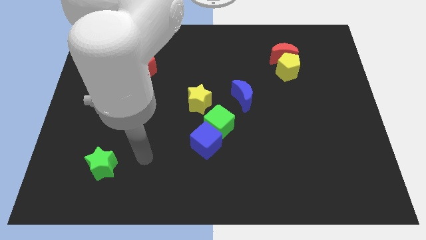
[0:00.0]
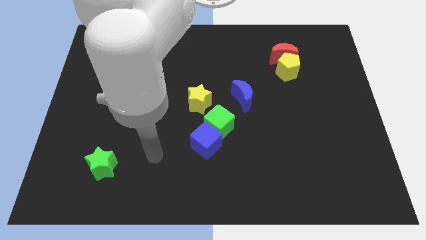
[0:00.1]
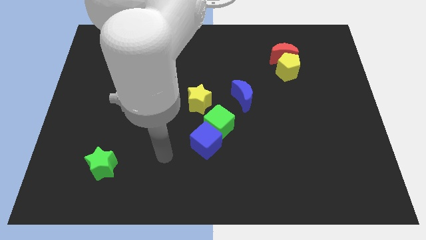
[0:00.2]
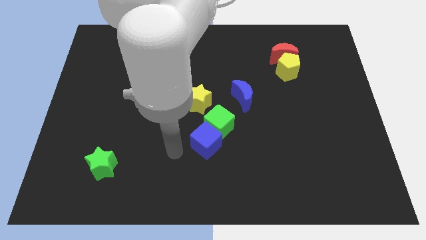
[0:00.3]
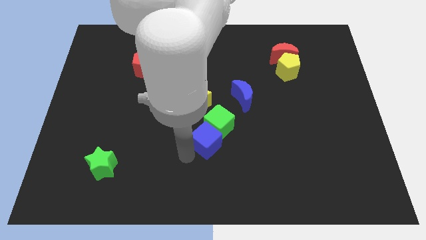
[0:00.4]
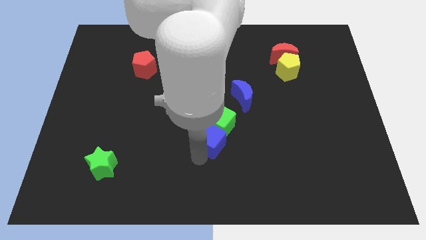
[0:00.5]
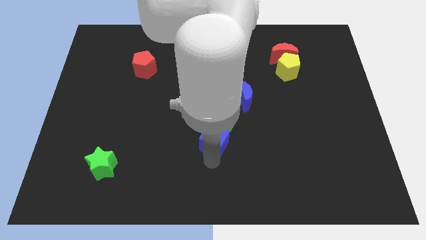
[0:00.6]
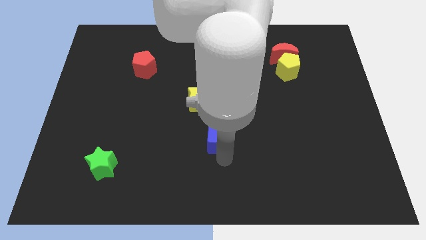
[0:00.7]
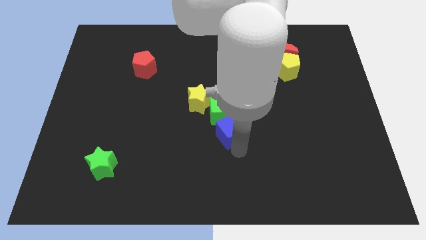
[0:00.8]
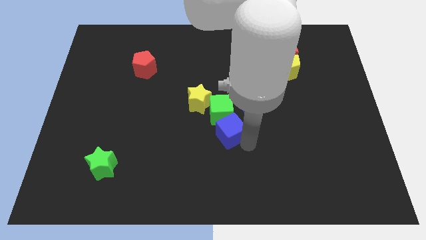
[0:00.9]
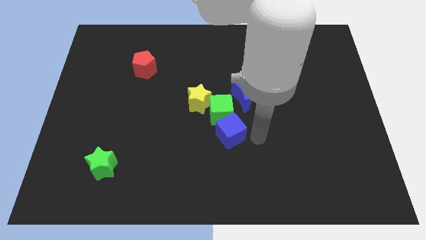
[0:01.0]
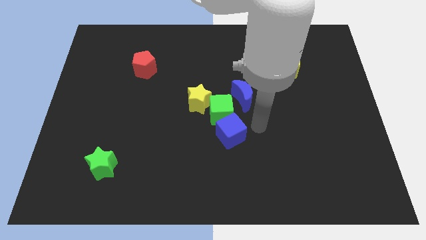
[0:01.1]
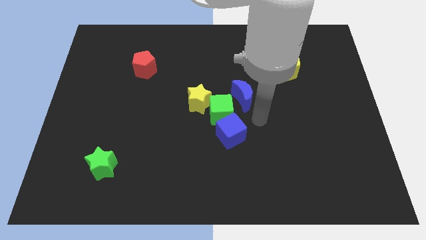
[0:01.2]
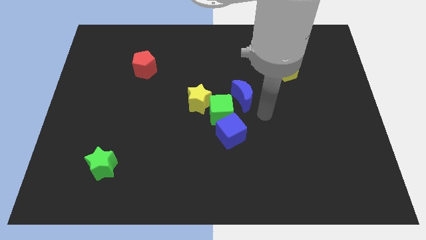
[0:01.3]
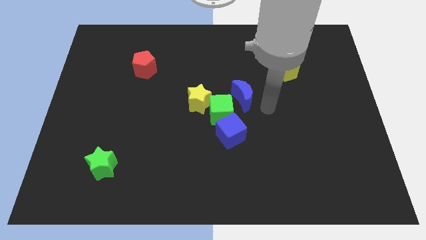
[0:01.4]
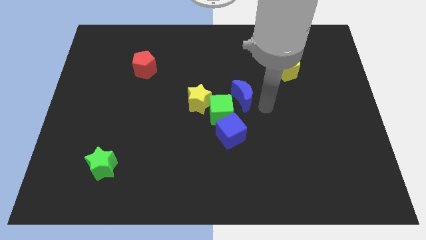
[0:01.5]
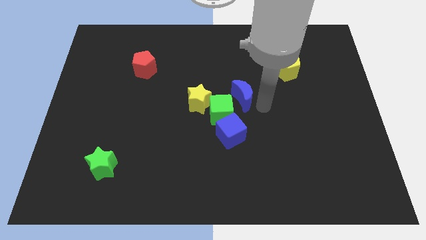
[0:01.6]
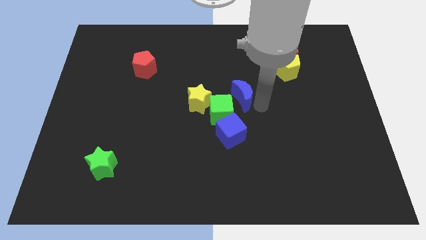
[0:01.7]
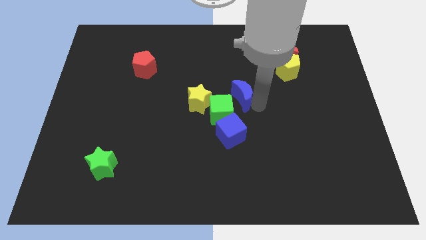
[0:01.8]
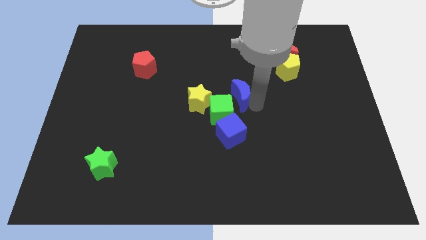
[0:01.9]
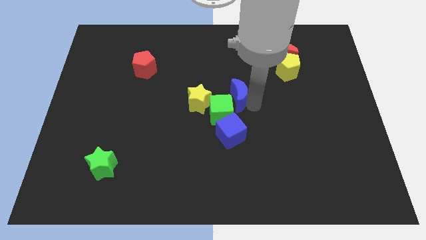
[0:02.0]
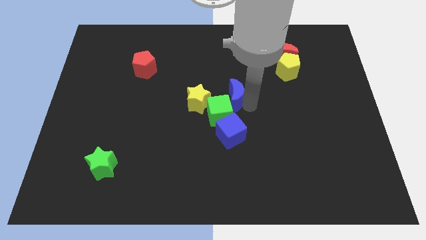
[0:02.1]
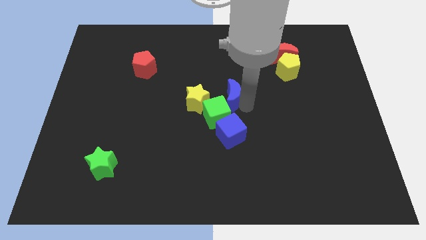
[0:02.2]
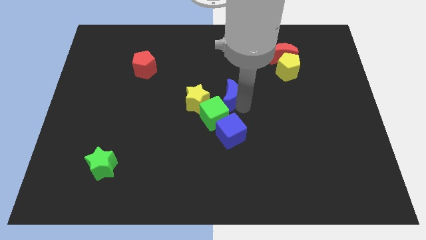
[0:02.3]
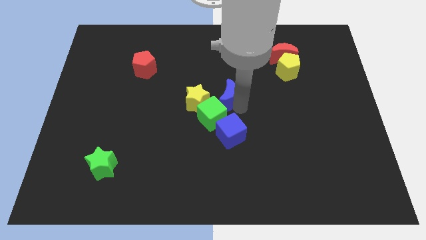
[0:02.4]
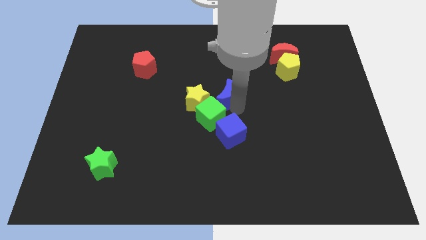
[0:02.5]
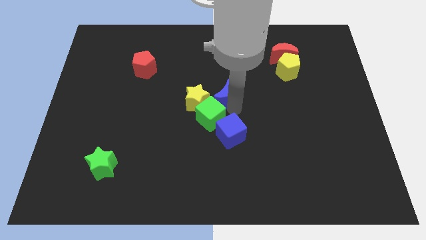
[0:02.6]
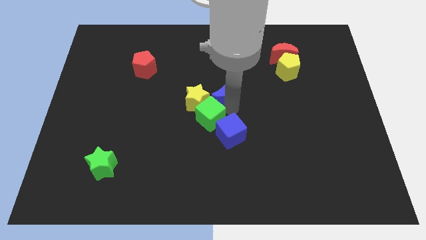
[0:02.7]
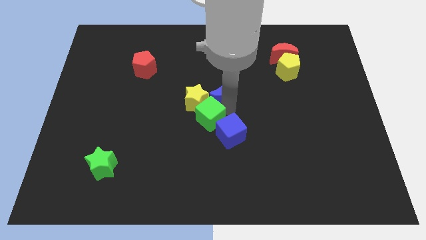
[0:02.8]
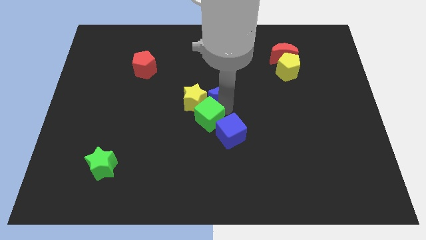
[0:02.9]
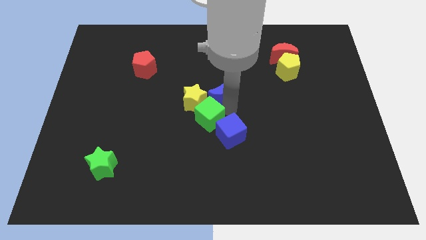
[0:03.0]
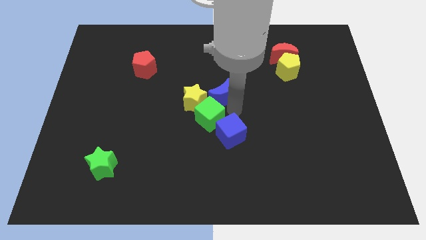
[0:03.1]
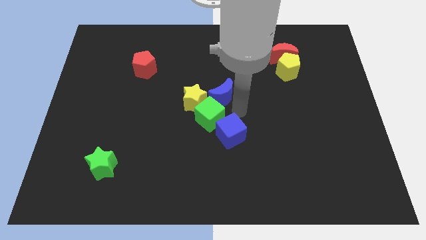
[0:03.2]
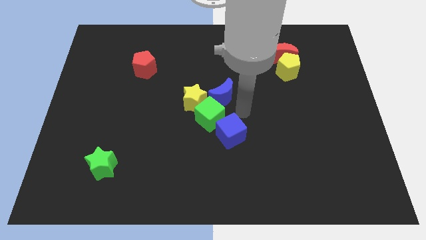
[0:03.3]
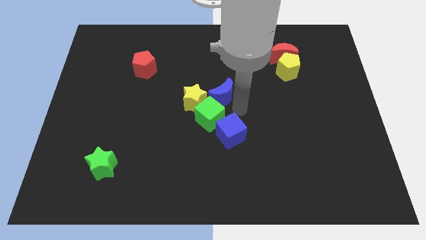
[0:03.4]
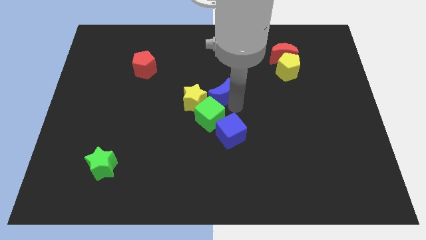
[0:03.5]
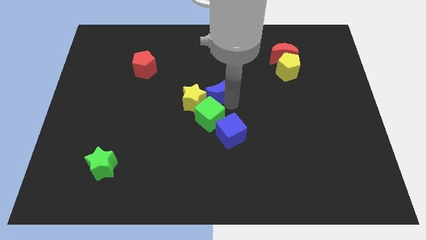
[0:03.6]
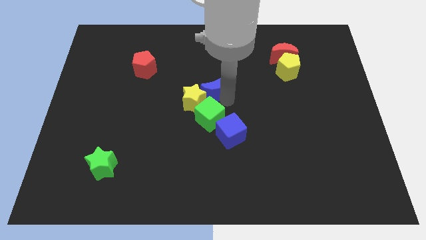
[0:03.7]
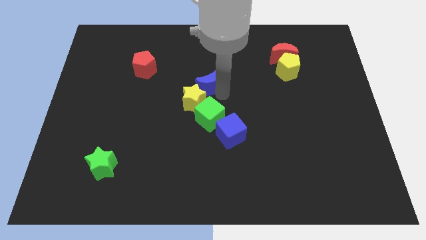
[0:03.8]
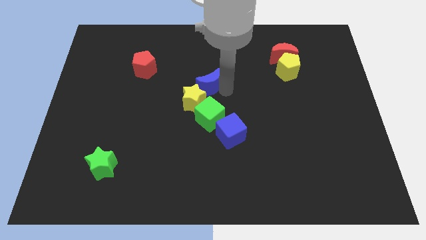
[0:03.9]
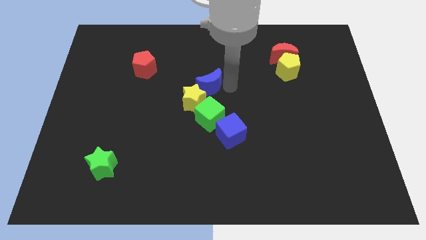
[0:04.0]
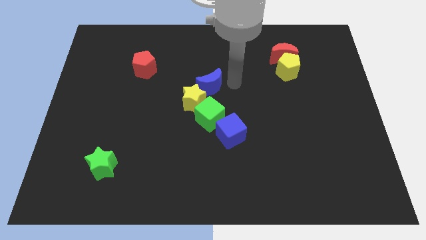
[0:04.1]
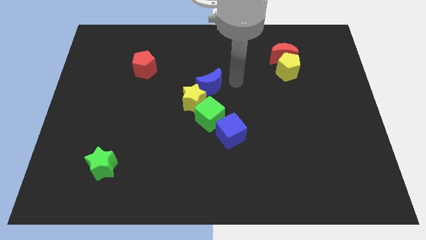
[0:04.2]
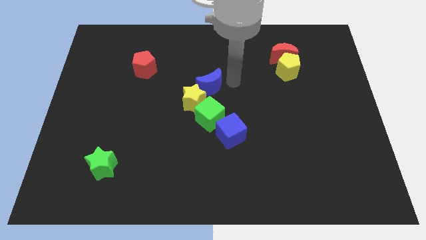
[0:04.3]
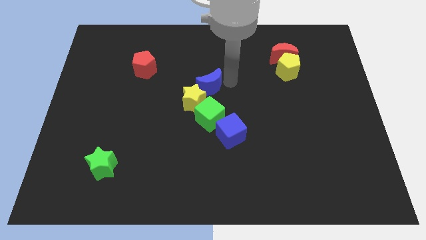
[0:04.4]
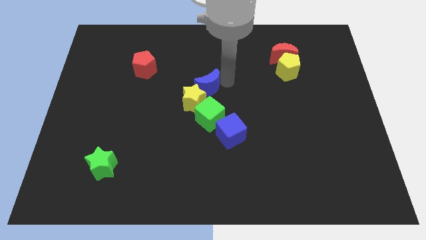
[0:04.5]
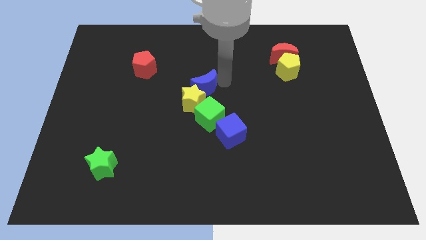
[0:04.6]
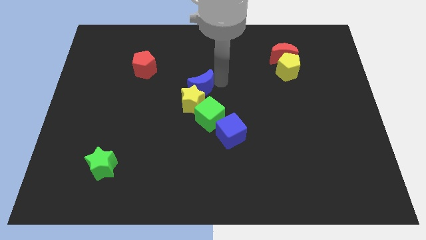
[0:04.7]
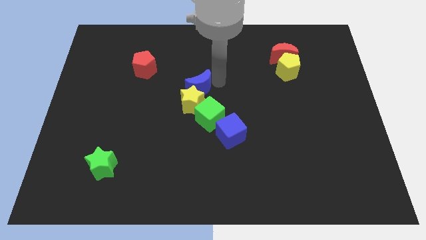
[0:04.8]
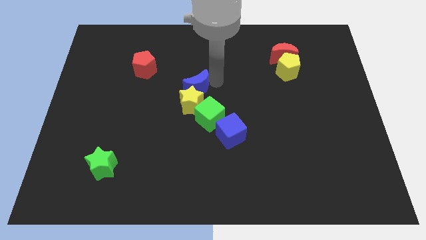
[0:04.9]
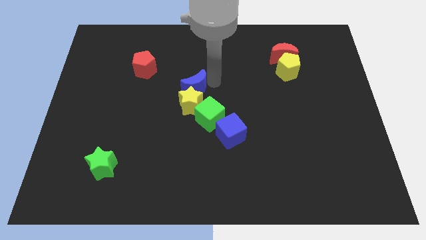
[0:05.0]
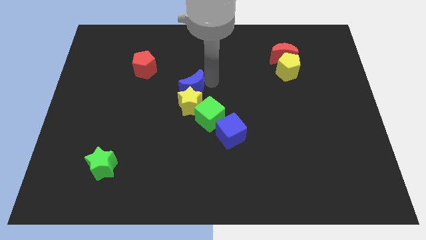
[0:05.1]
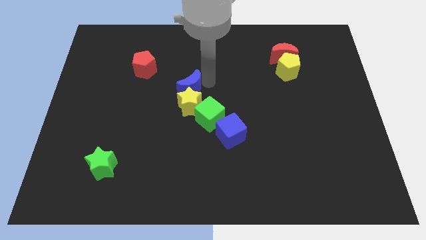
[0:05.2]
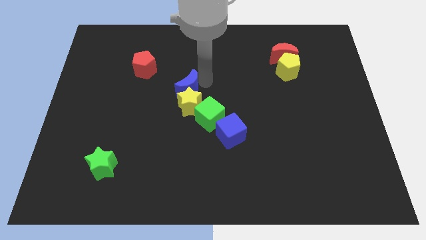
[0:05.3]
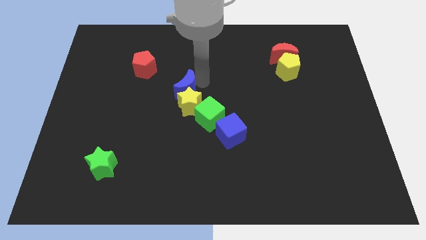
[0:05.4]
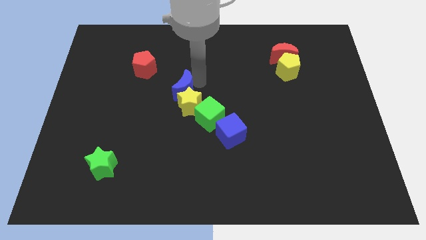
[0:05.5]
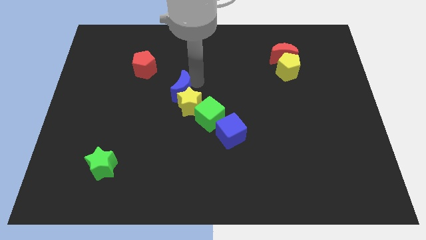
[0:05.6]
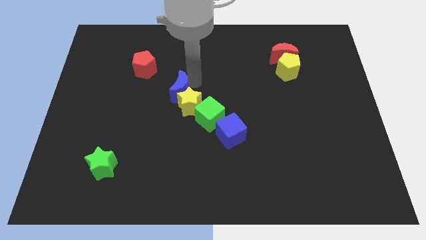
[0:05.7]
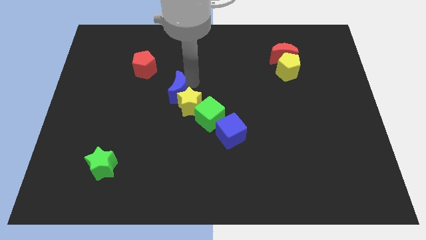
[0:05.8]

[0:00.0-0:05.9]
slide the blue moon to the left side of the yellow star
